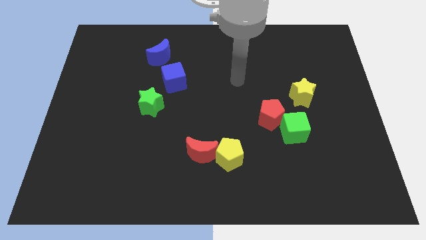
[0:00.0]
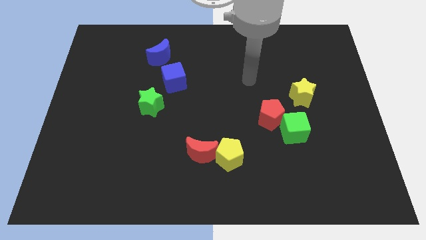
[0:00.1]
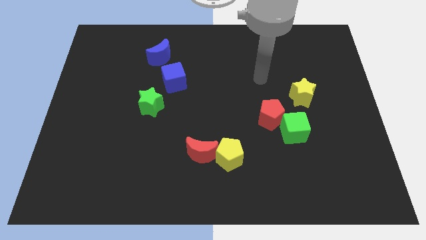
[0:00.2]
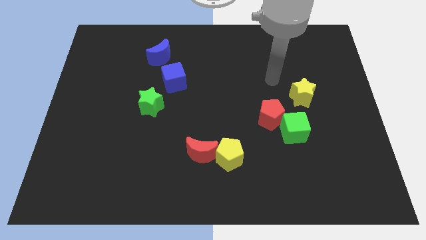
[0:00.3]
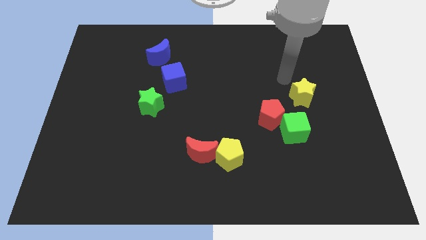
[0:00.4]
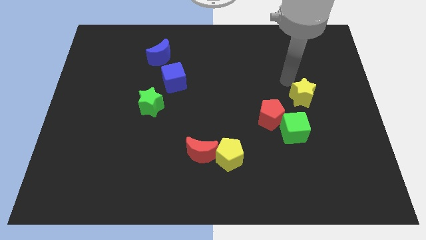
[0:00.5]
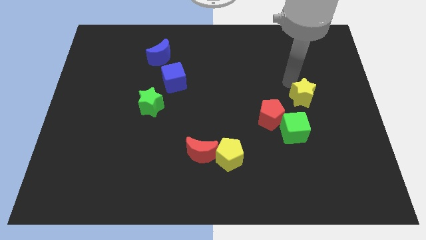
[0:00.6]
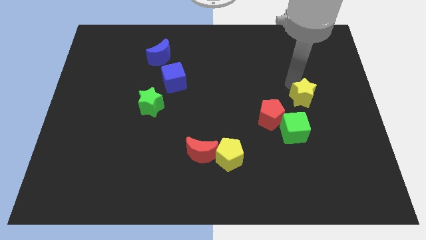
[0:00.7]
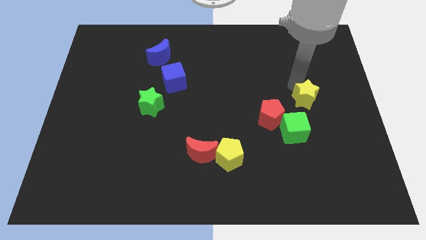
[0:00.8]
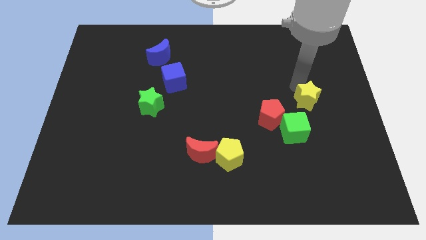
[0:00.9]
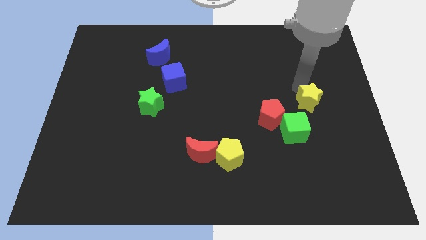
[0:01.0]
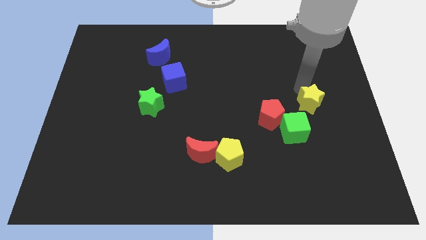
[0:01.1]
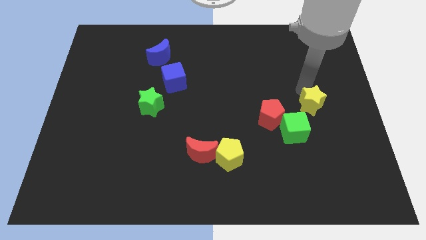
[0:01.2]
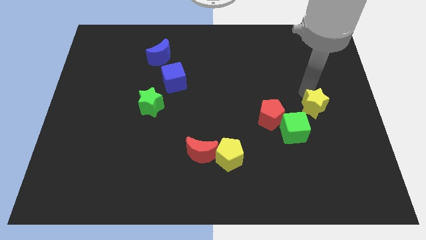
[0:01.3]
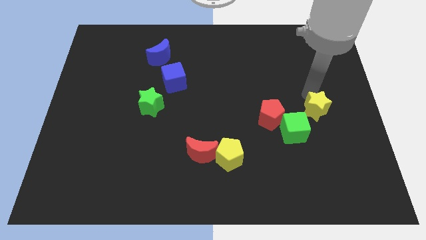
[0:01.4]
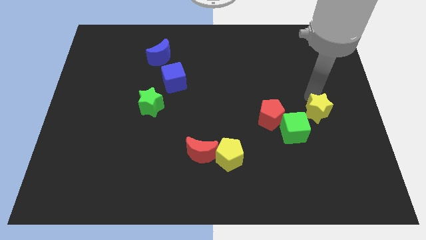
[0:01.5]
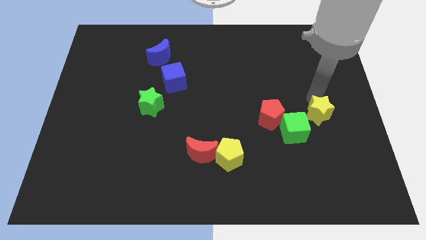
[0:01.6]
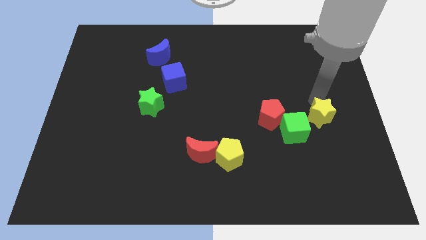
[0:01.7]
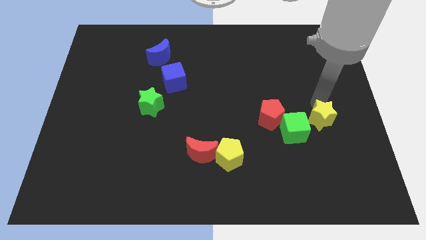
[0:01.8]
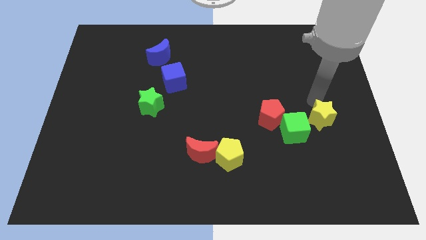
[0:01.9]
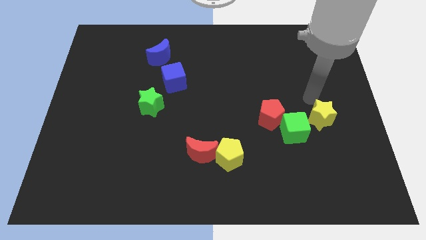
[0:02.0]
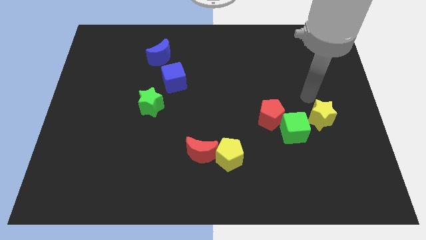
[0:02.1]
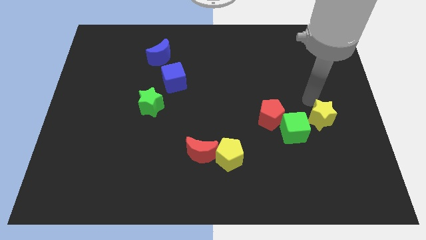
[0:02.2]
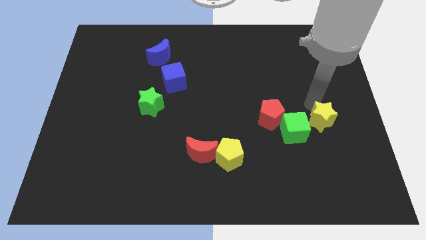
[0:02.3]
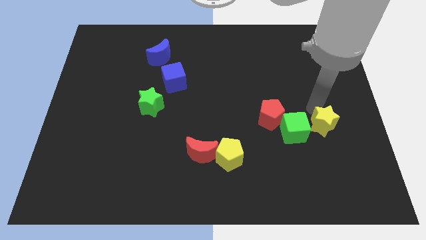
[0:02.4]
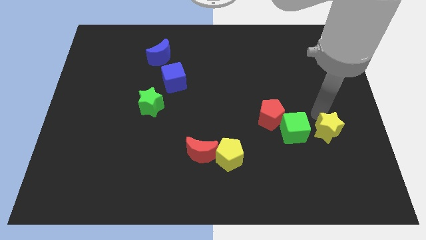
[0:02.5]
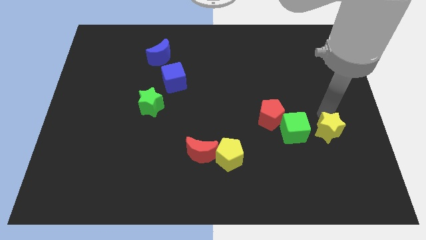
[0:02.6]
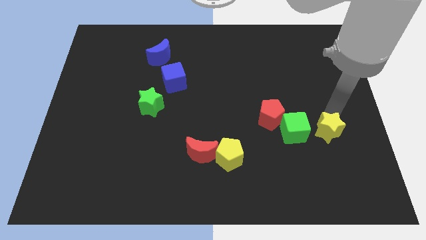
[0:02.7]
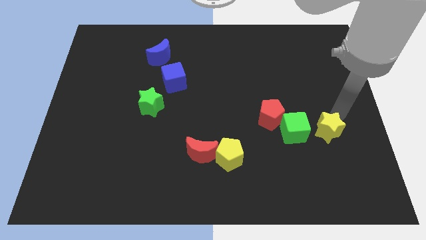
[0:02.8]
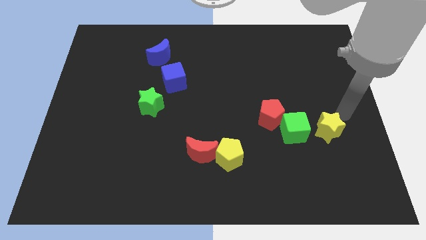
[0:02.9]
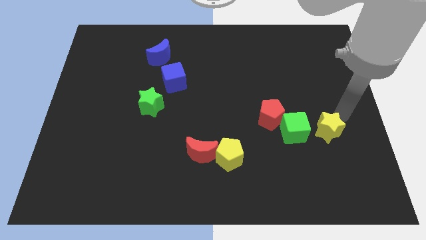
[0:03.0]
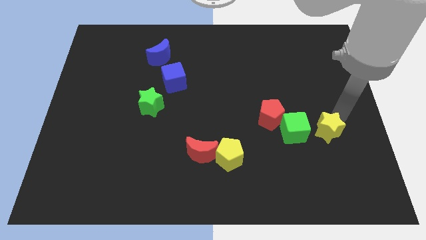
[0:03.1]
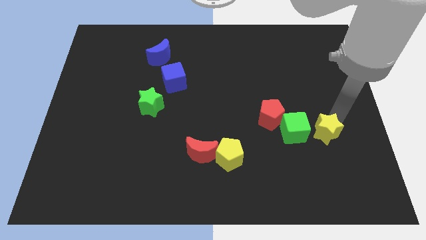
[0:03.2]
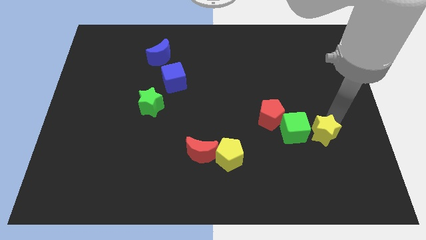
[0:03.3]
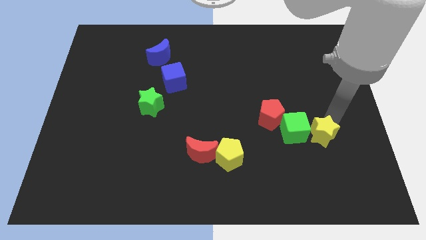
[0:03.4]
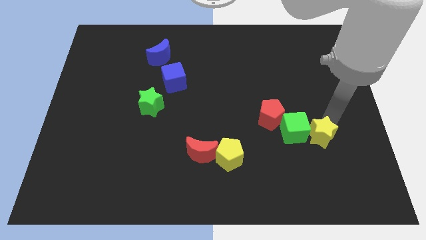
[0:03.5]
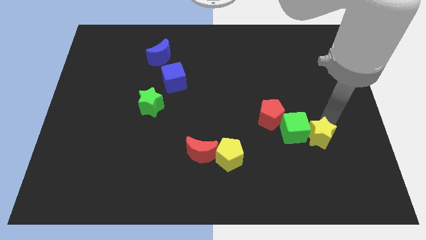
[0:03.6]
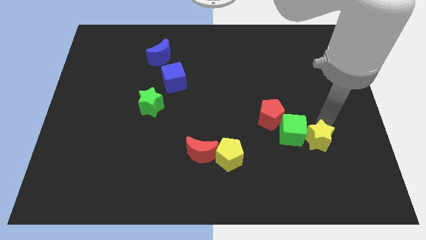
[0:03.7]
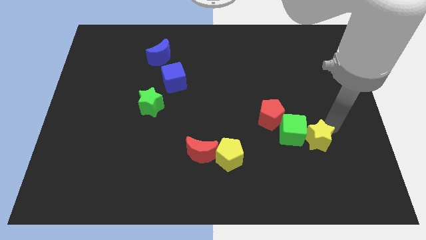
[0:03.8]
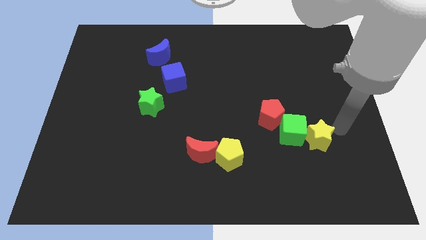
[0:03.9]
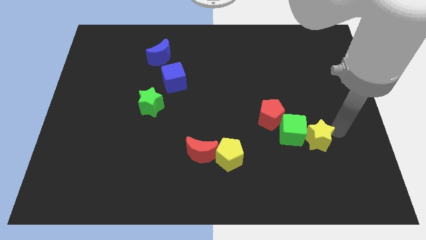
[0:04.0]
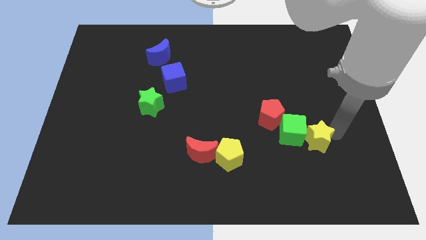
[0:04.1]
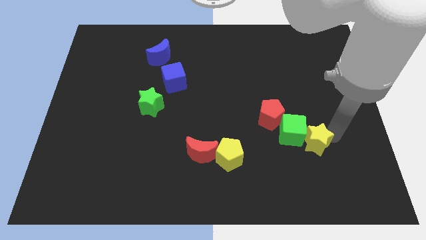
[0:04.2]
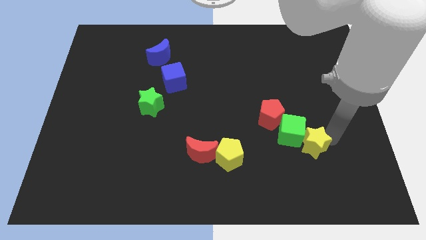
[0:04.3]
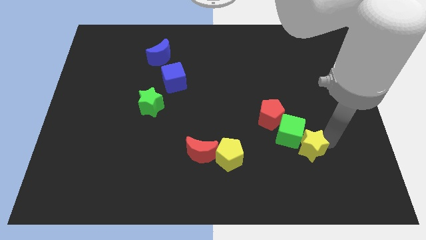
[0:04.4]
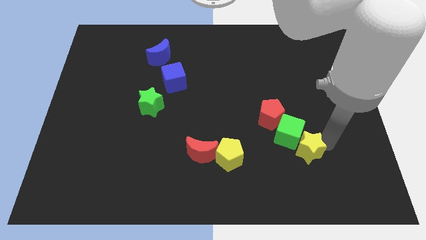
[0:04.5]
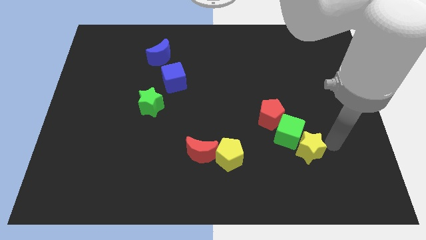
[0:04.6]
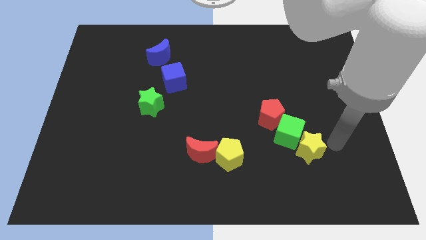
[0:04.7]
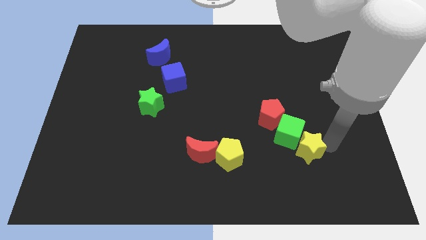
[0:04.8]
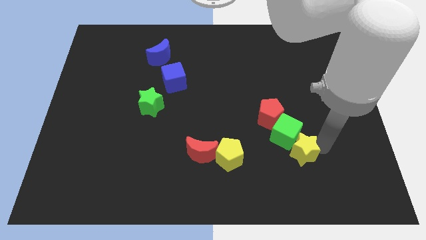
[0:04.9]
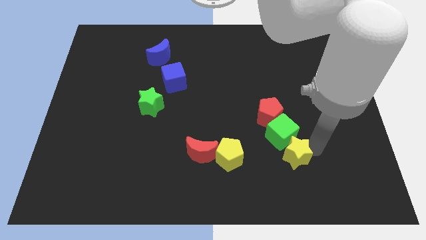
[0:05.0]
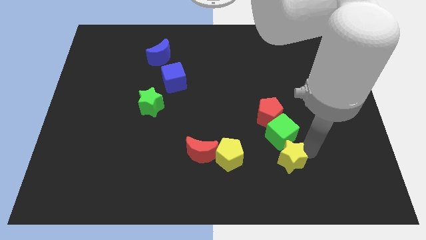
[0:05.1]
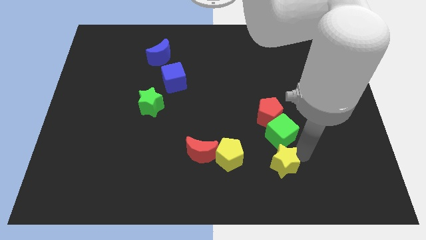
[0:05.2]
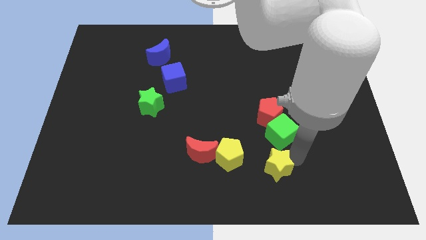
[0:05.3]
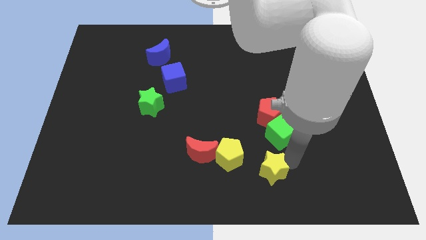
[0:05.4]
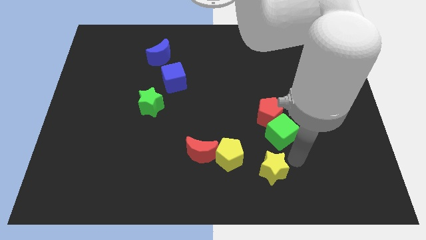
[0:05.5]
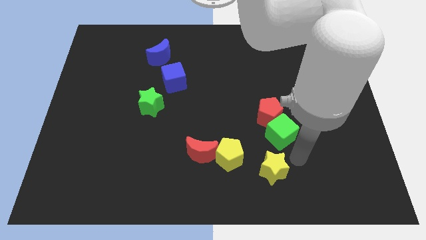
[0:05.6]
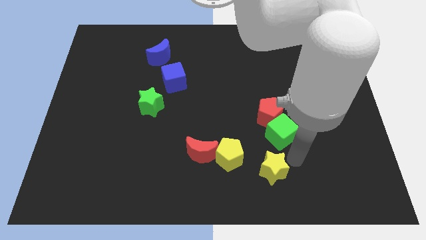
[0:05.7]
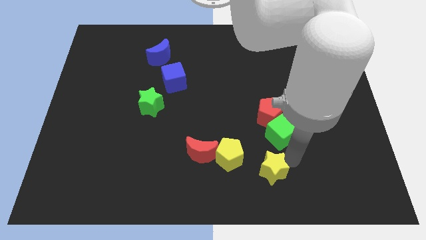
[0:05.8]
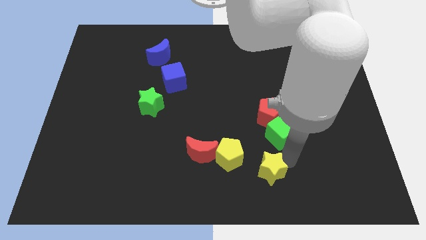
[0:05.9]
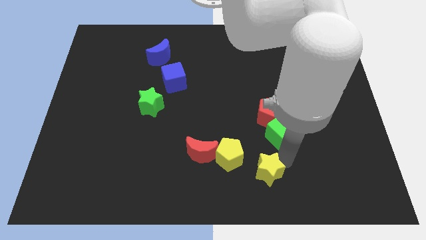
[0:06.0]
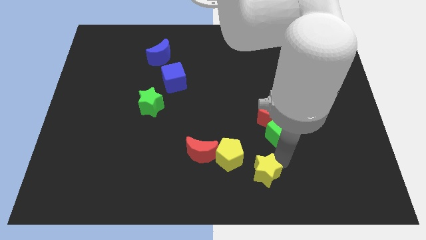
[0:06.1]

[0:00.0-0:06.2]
push the yellow star to the bottom

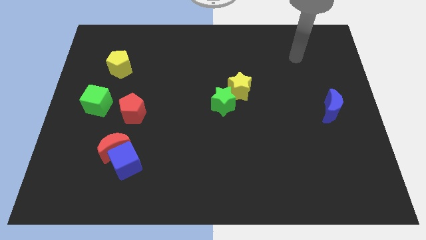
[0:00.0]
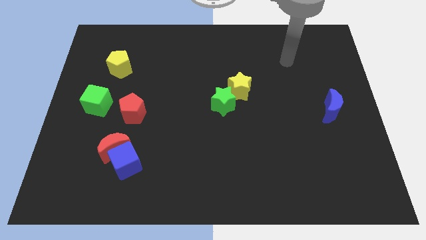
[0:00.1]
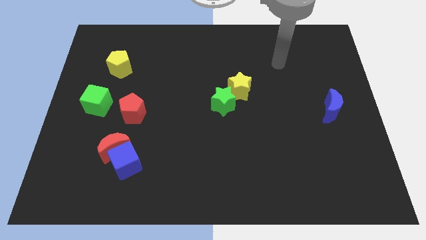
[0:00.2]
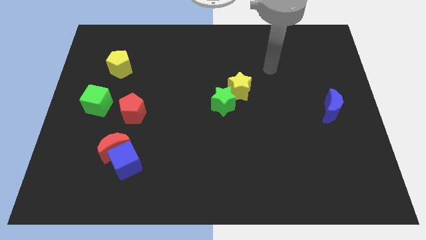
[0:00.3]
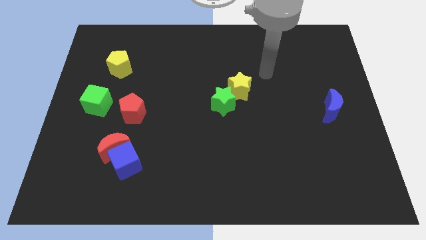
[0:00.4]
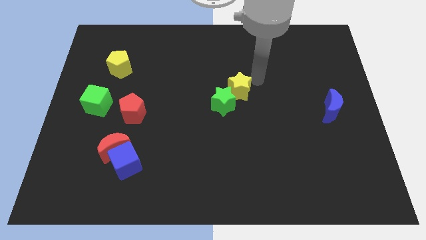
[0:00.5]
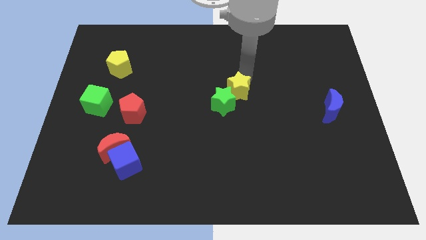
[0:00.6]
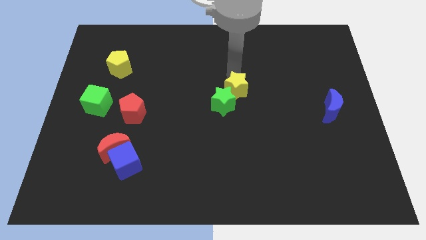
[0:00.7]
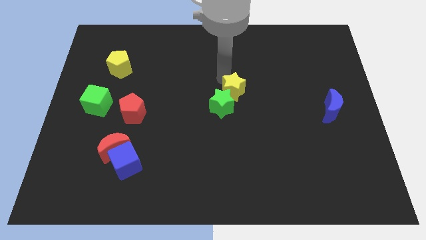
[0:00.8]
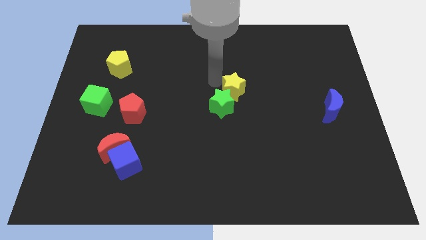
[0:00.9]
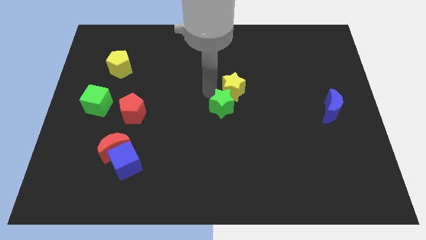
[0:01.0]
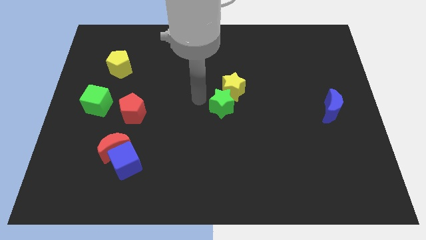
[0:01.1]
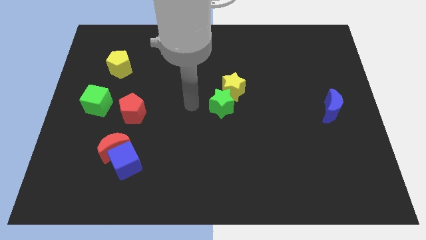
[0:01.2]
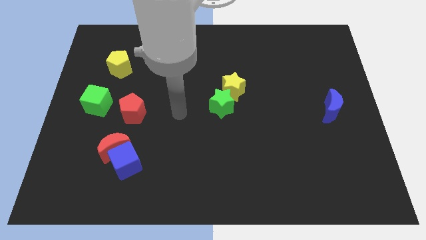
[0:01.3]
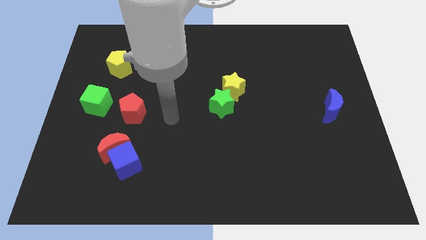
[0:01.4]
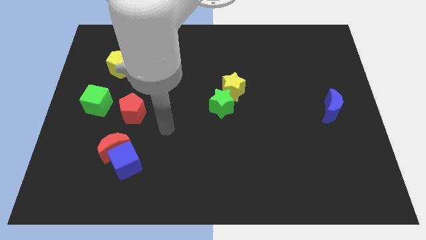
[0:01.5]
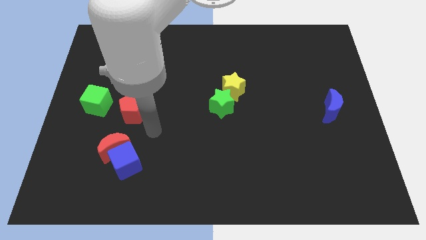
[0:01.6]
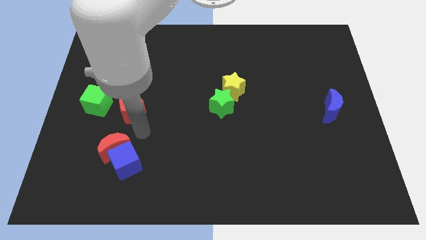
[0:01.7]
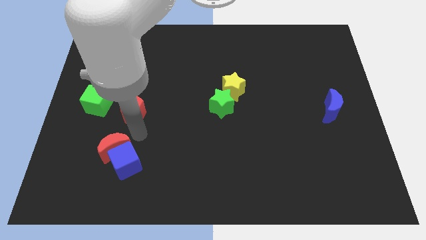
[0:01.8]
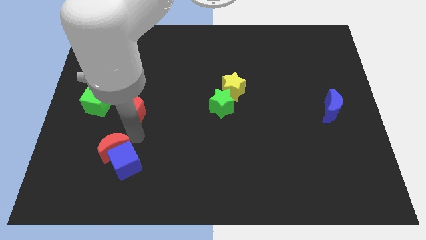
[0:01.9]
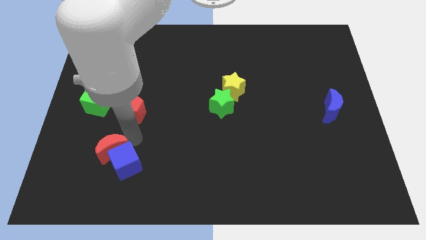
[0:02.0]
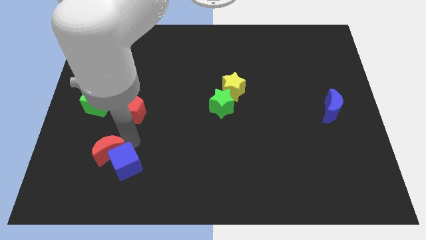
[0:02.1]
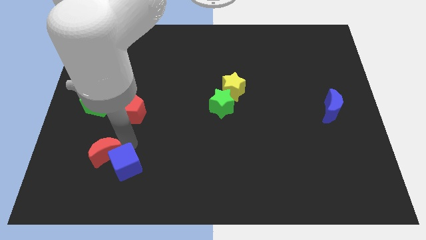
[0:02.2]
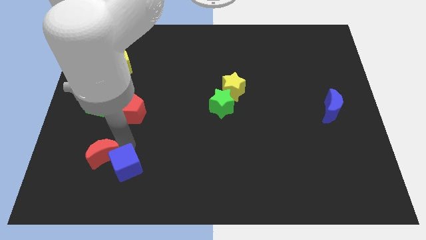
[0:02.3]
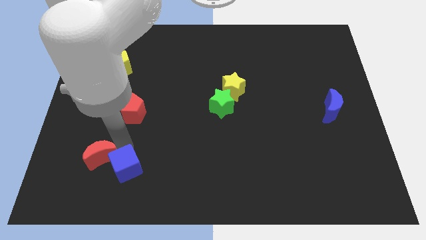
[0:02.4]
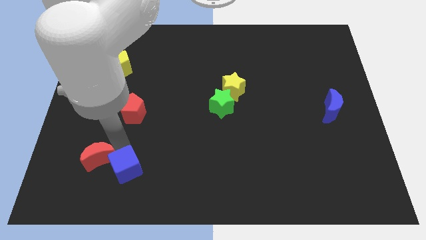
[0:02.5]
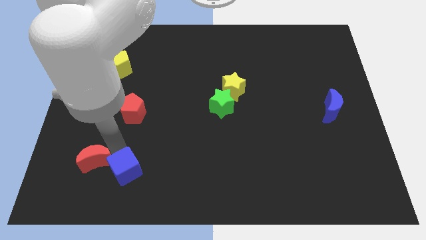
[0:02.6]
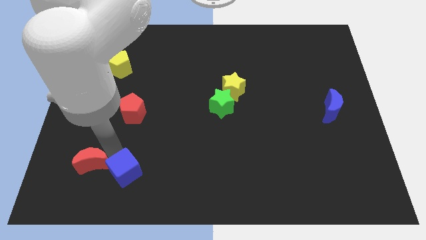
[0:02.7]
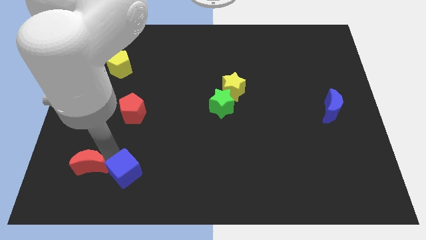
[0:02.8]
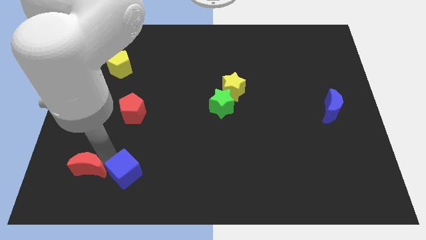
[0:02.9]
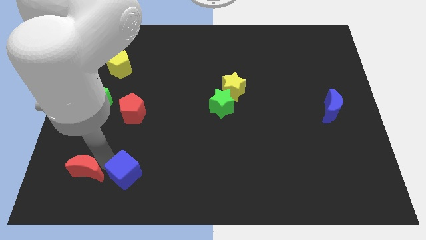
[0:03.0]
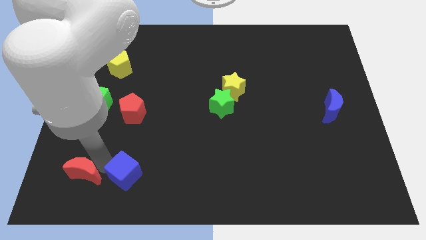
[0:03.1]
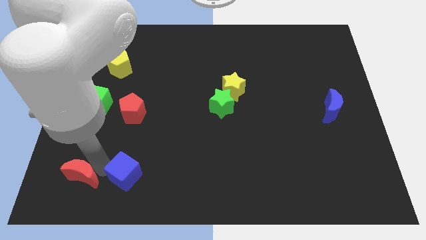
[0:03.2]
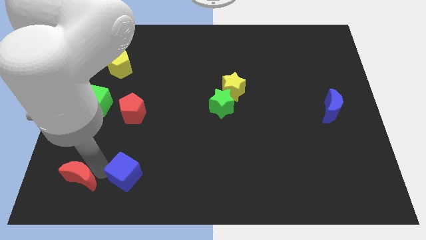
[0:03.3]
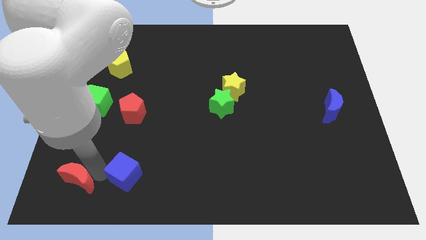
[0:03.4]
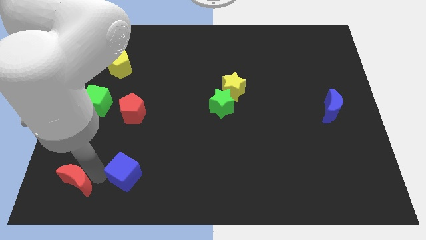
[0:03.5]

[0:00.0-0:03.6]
push the red moon to the bottom left of the board
